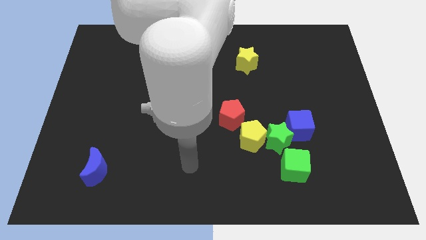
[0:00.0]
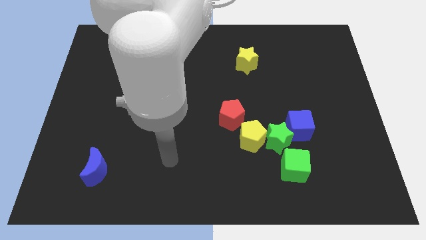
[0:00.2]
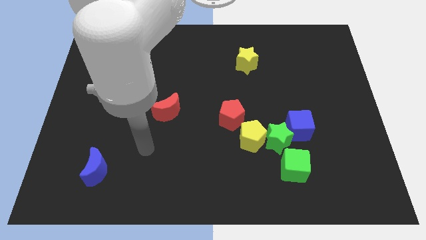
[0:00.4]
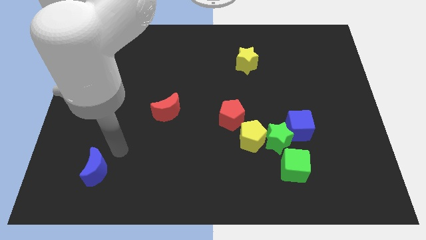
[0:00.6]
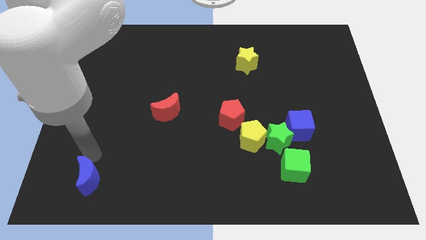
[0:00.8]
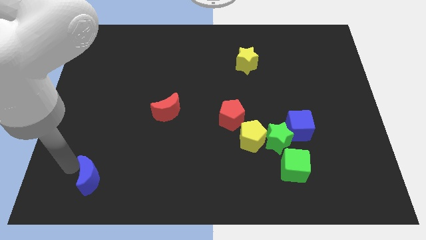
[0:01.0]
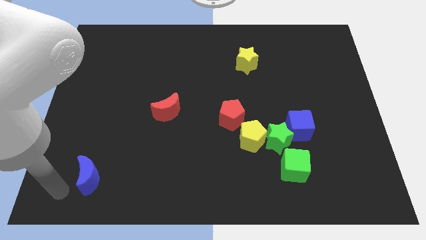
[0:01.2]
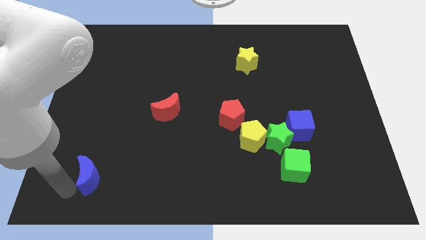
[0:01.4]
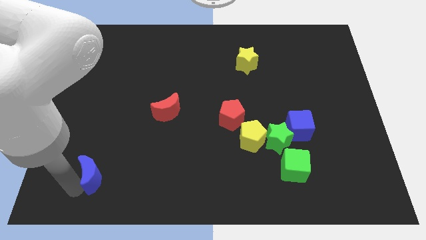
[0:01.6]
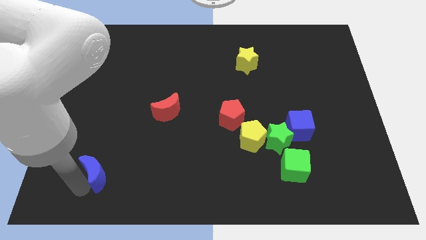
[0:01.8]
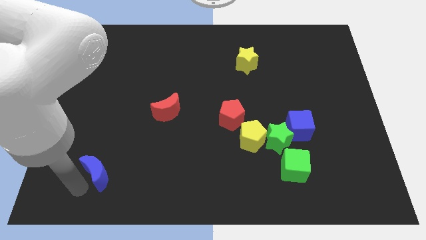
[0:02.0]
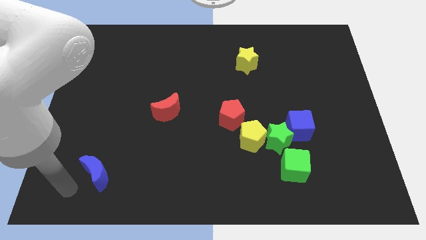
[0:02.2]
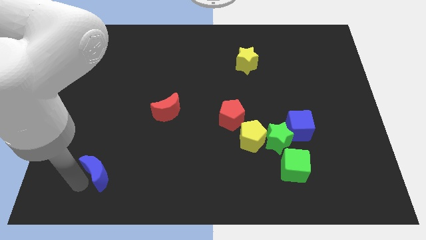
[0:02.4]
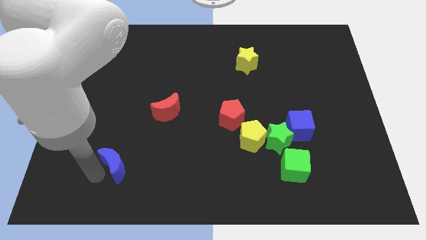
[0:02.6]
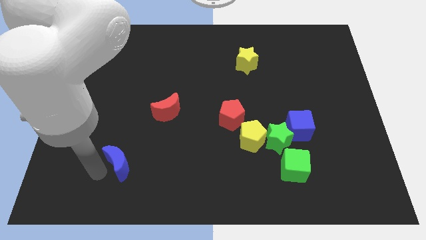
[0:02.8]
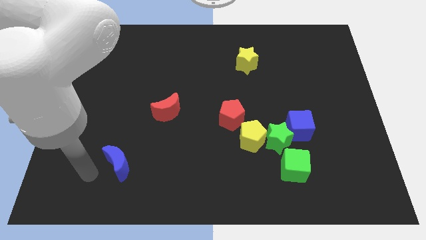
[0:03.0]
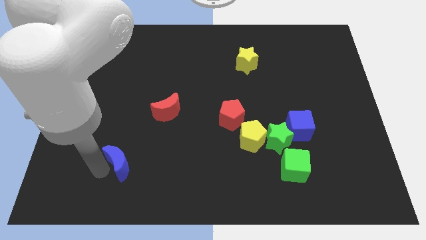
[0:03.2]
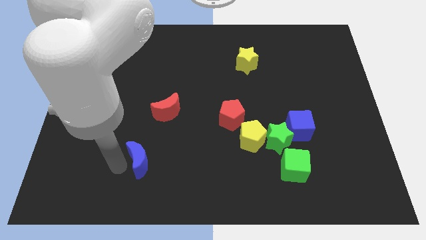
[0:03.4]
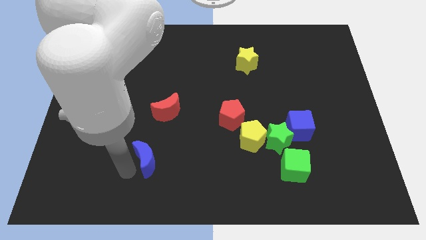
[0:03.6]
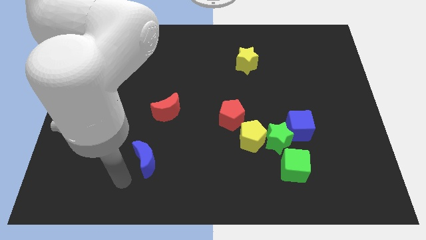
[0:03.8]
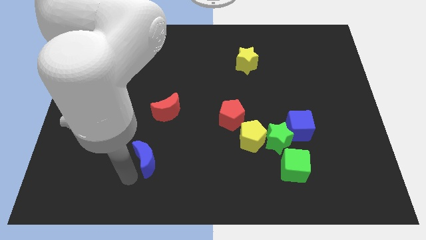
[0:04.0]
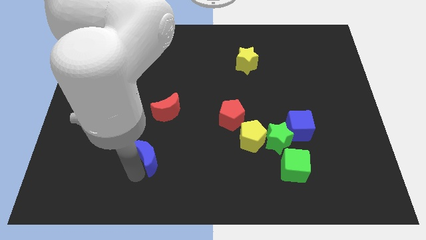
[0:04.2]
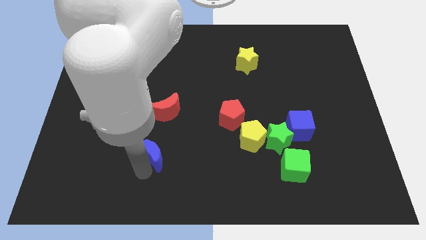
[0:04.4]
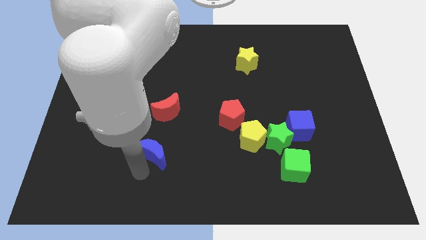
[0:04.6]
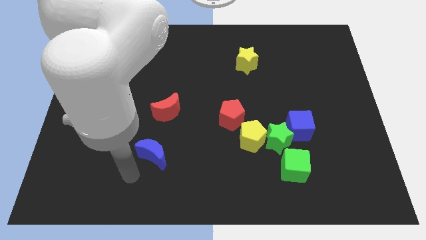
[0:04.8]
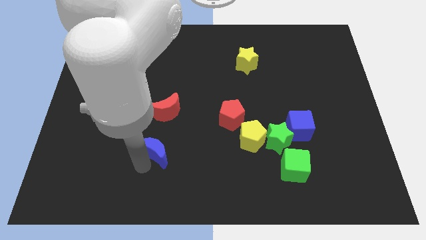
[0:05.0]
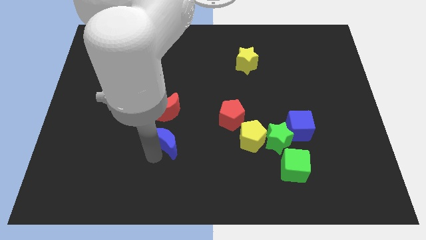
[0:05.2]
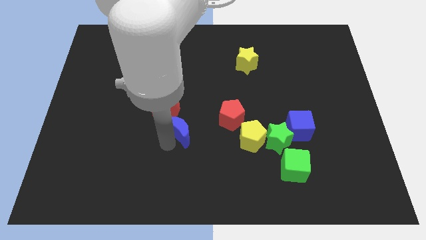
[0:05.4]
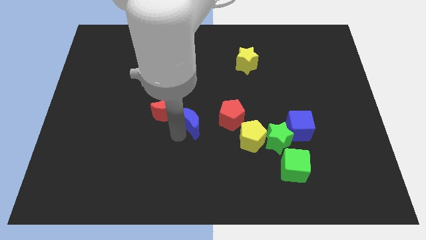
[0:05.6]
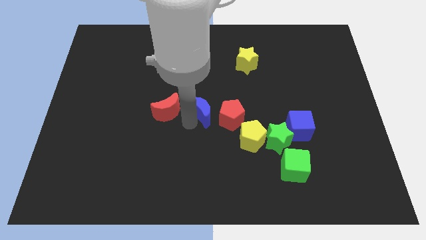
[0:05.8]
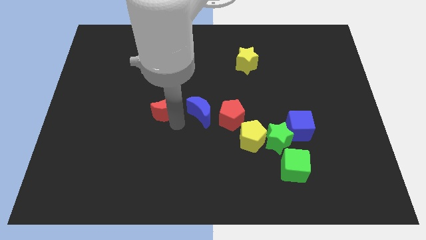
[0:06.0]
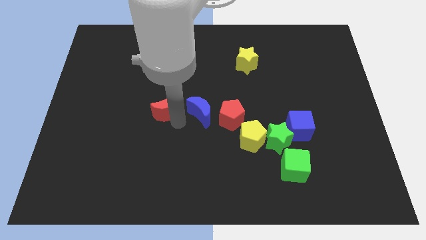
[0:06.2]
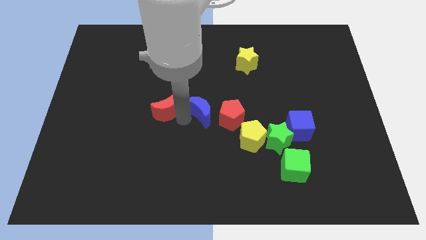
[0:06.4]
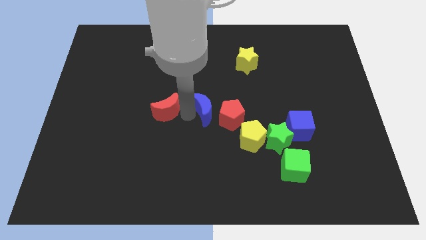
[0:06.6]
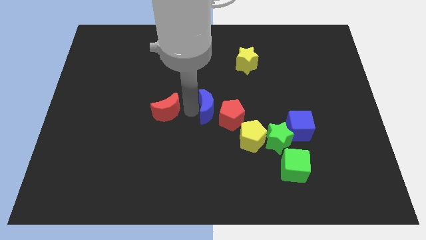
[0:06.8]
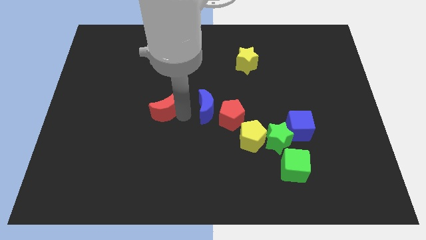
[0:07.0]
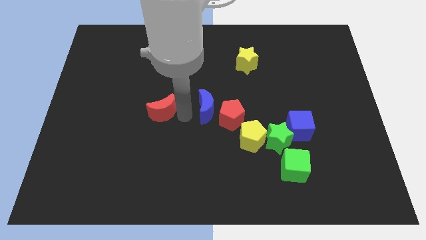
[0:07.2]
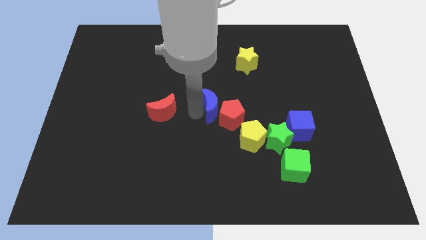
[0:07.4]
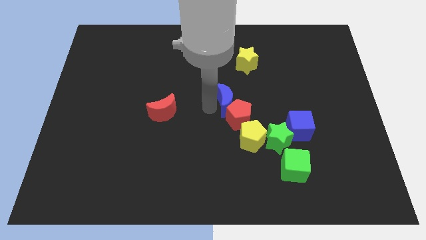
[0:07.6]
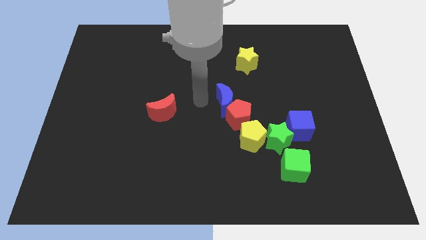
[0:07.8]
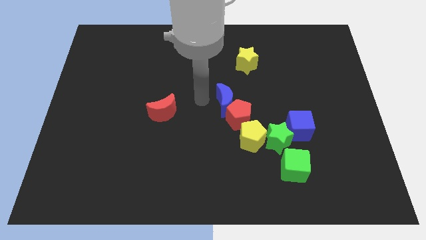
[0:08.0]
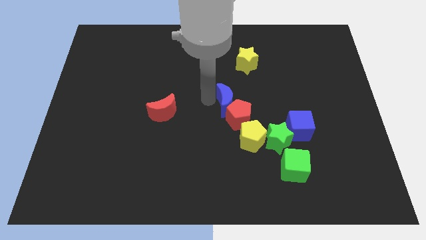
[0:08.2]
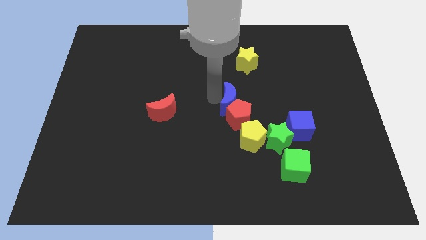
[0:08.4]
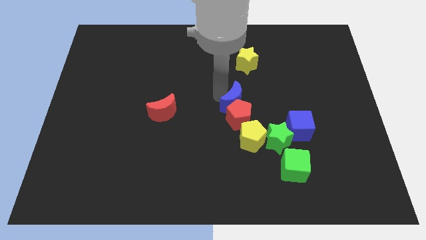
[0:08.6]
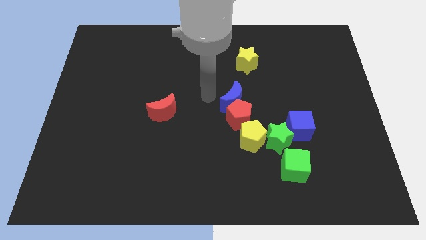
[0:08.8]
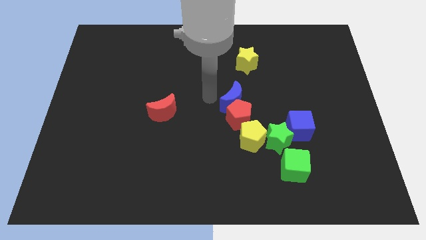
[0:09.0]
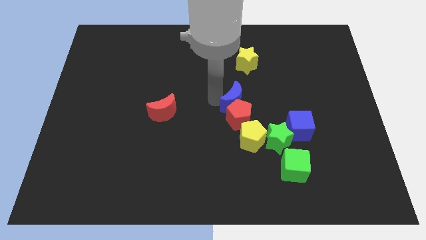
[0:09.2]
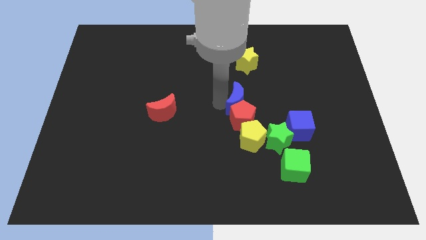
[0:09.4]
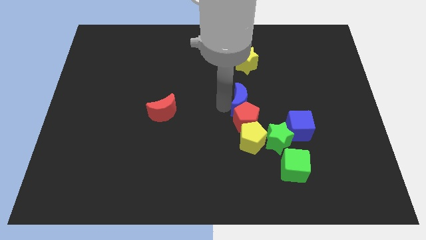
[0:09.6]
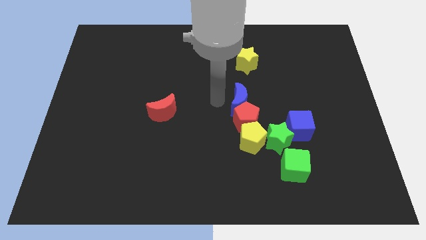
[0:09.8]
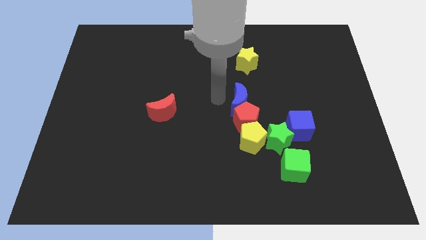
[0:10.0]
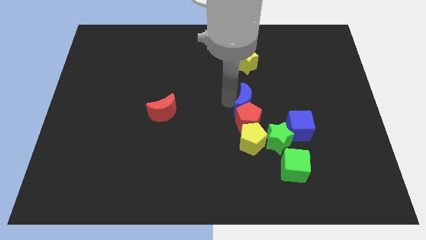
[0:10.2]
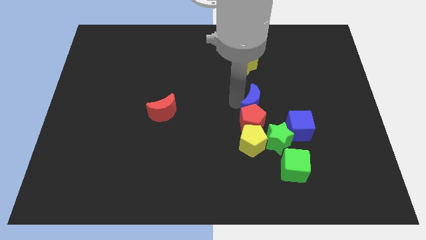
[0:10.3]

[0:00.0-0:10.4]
slide the blue moon diagonally up and to the left of the blue cube
